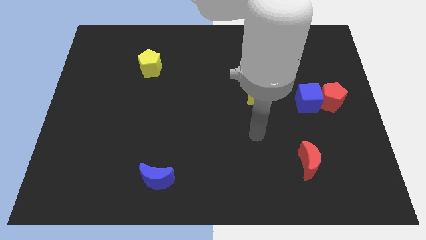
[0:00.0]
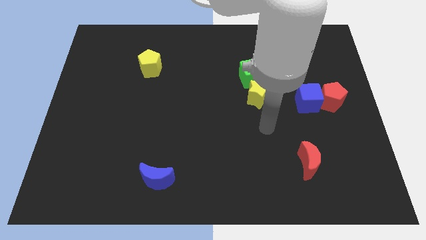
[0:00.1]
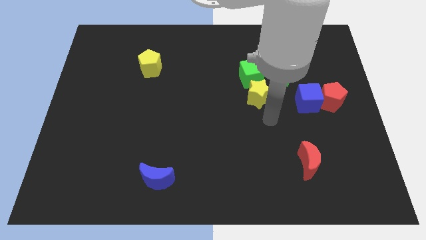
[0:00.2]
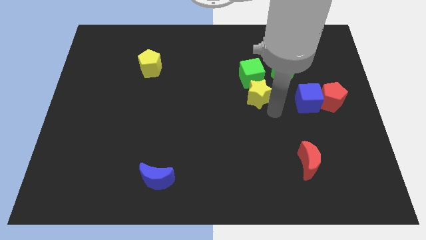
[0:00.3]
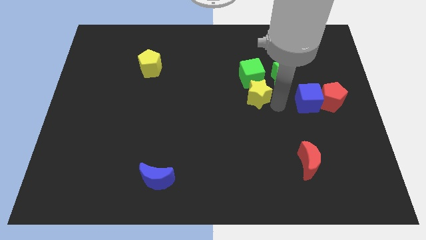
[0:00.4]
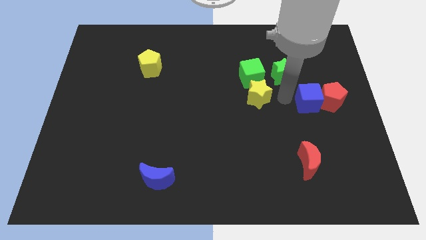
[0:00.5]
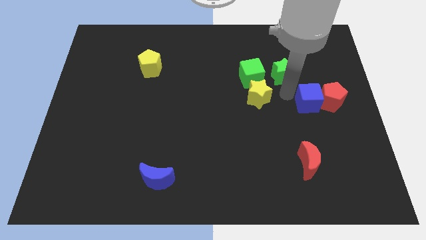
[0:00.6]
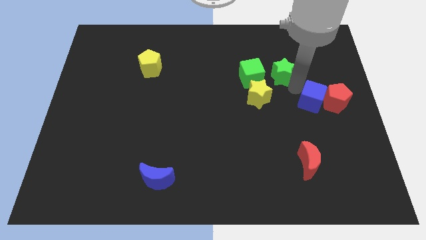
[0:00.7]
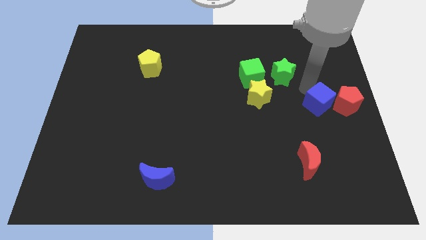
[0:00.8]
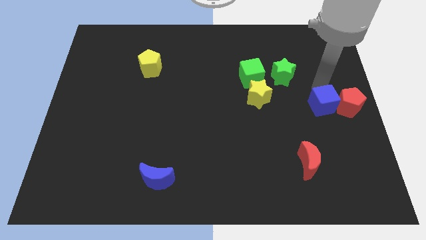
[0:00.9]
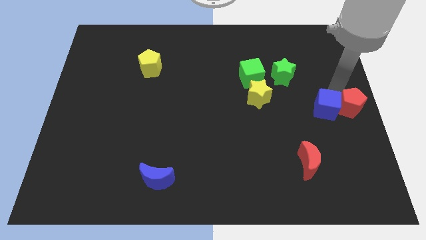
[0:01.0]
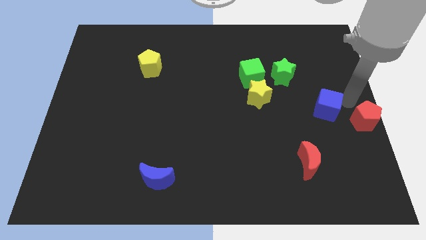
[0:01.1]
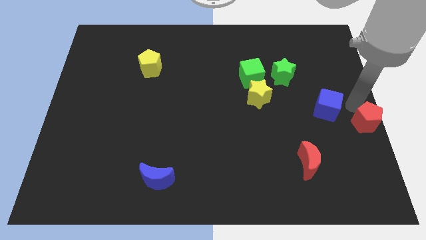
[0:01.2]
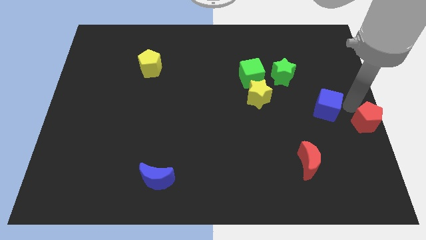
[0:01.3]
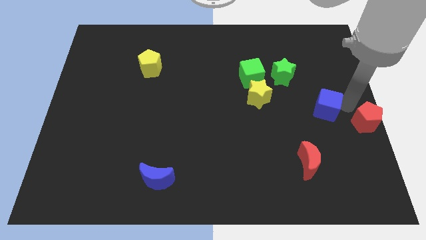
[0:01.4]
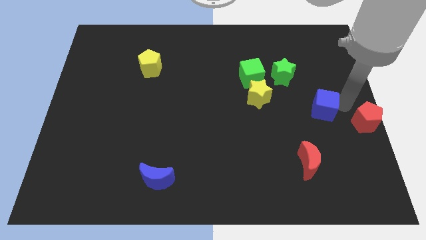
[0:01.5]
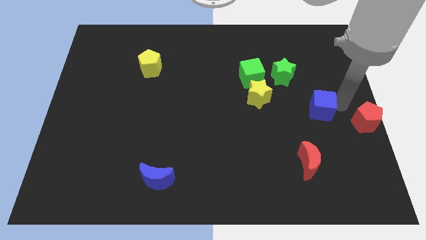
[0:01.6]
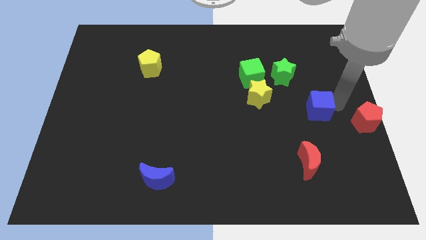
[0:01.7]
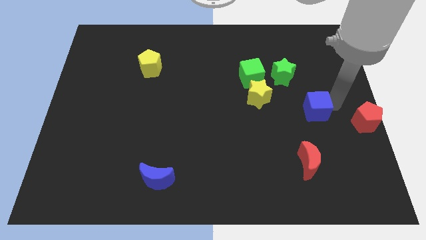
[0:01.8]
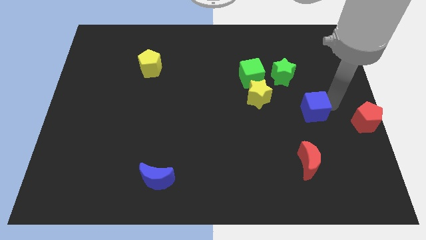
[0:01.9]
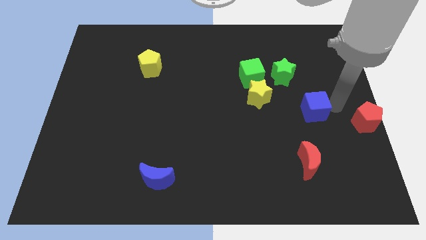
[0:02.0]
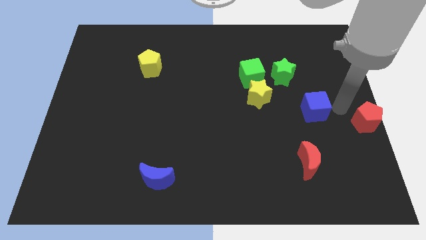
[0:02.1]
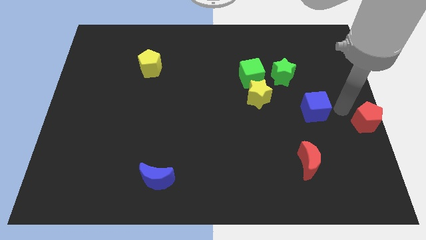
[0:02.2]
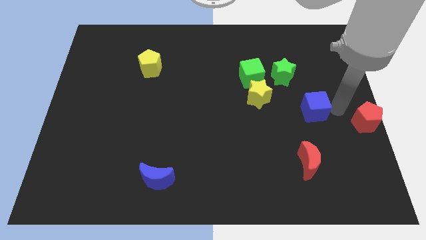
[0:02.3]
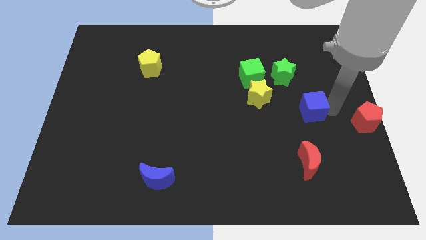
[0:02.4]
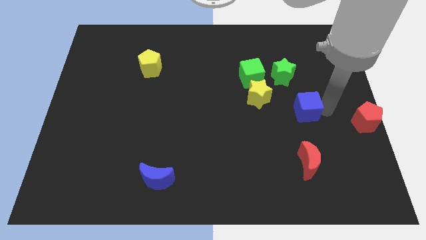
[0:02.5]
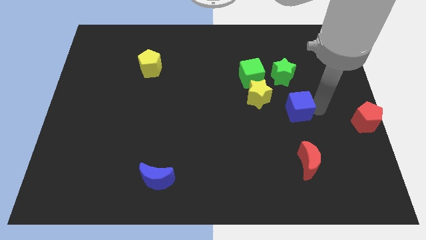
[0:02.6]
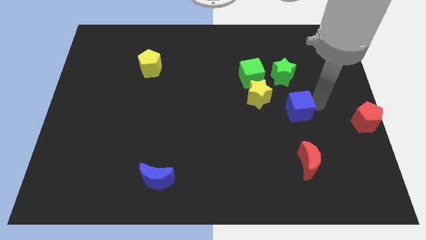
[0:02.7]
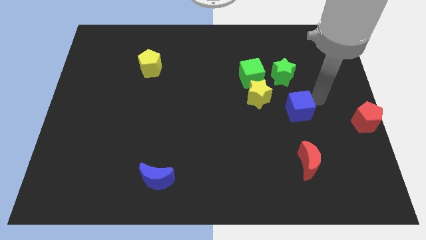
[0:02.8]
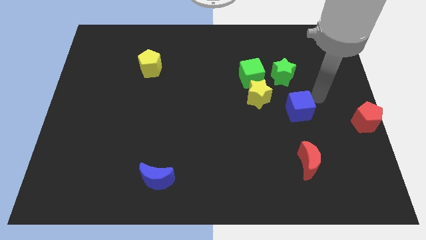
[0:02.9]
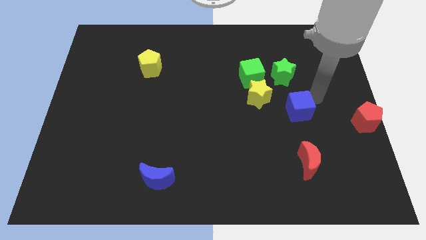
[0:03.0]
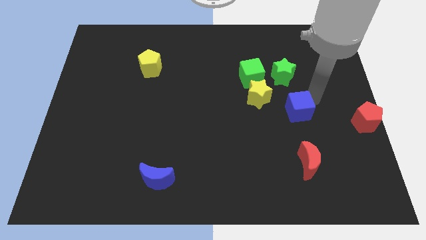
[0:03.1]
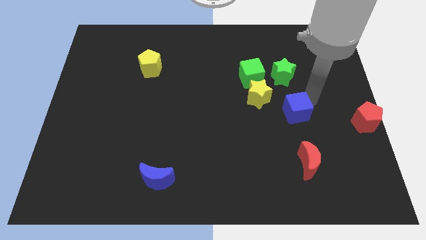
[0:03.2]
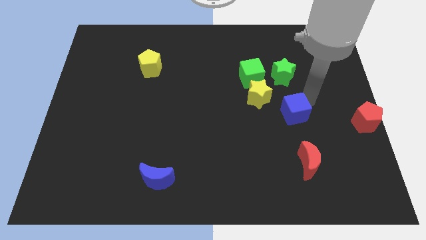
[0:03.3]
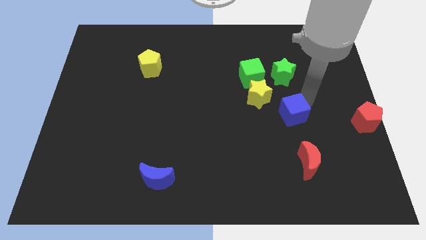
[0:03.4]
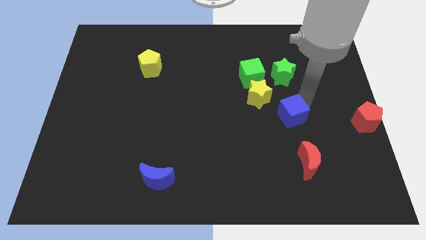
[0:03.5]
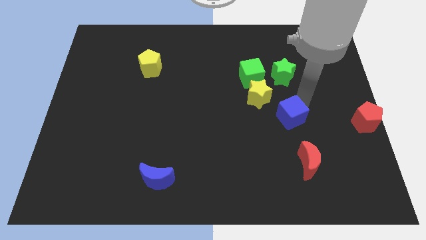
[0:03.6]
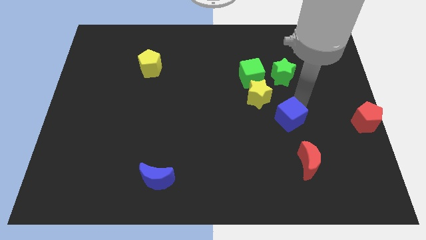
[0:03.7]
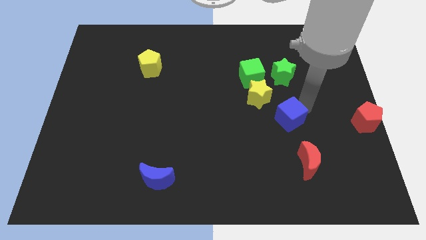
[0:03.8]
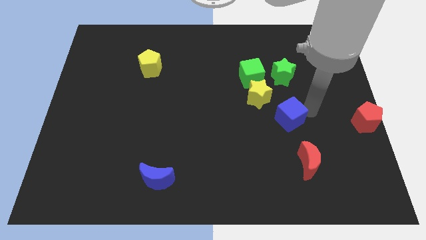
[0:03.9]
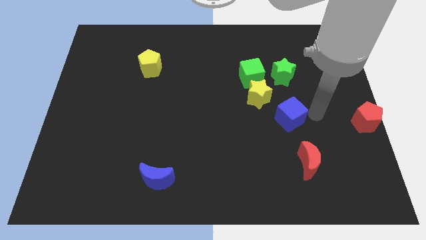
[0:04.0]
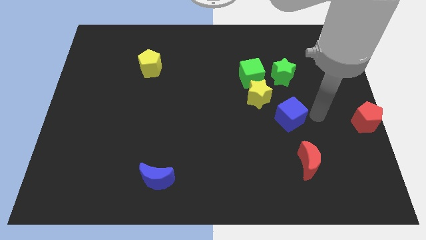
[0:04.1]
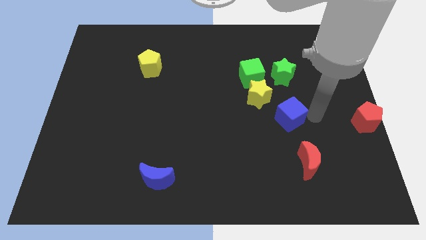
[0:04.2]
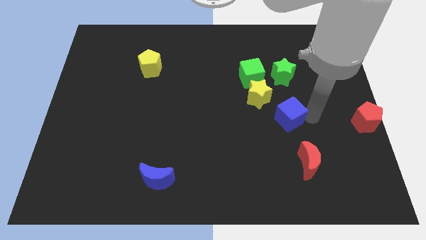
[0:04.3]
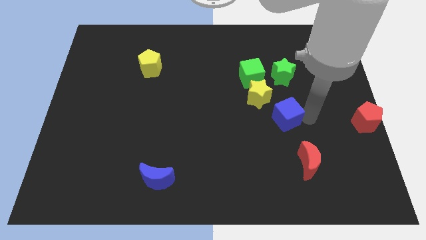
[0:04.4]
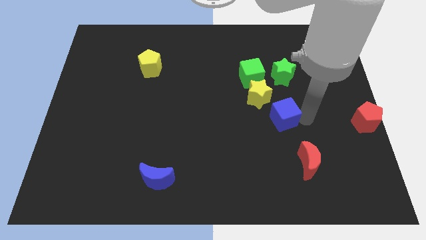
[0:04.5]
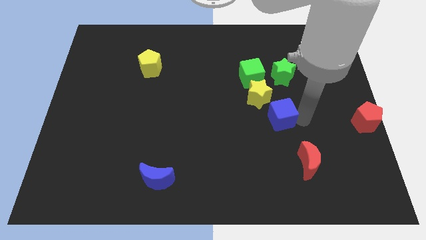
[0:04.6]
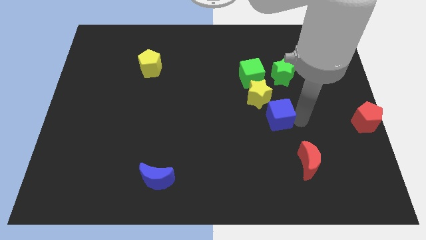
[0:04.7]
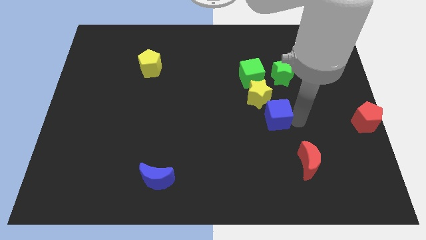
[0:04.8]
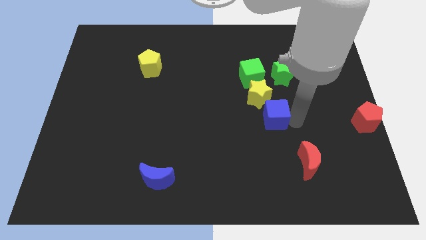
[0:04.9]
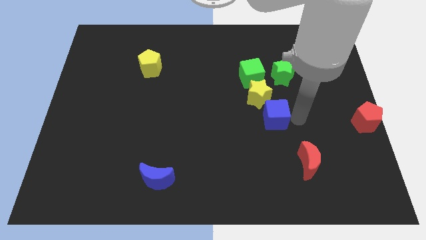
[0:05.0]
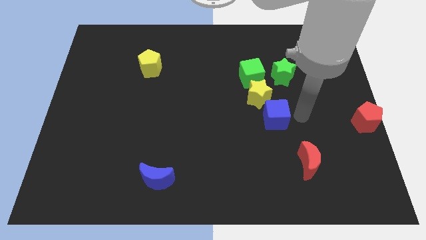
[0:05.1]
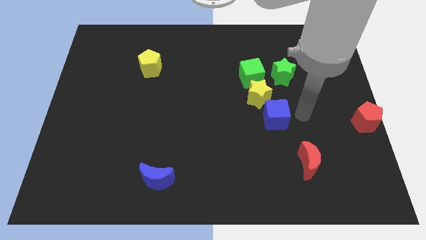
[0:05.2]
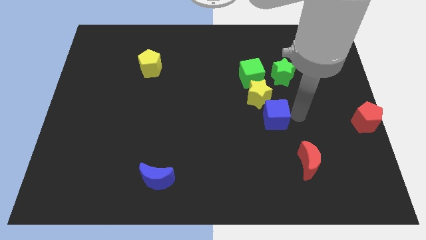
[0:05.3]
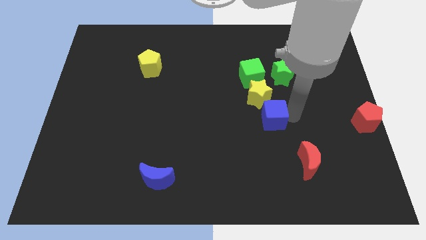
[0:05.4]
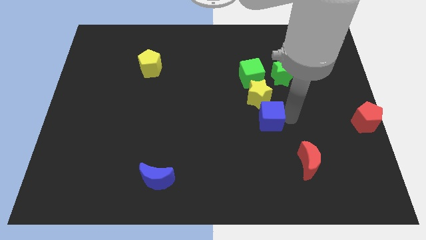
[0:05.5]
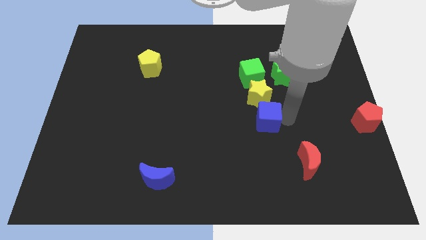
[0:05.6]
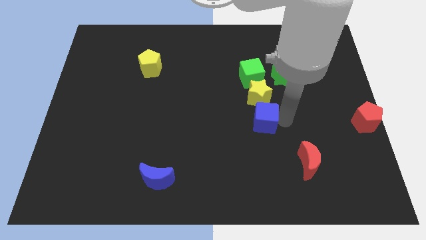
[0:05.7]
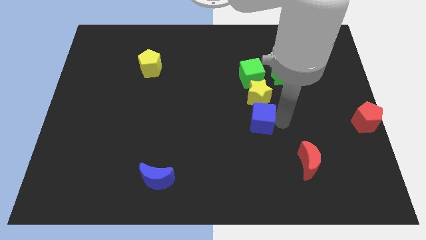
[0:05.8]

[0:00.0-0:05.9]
put the blue cube to the middle of the board

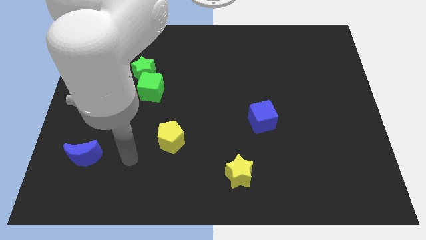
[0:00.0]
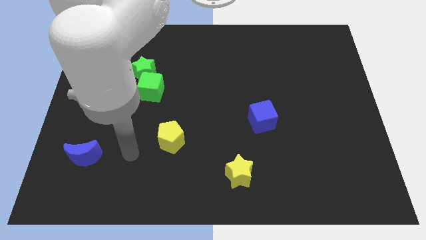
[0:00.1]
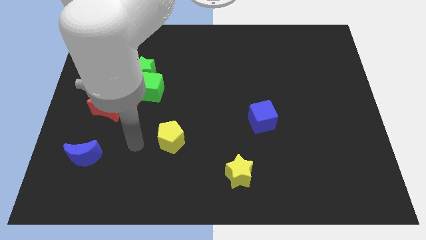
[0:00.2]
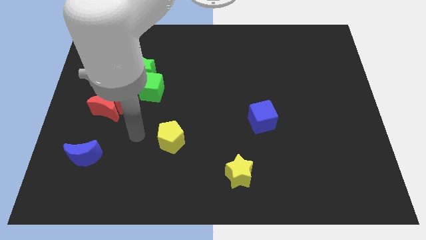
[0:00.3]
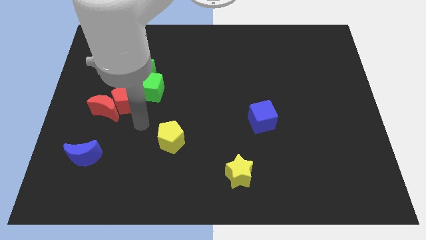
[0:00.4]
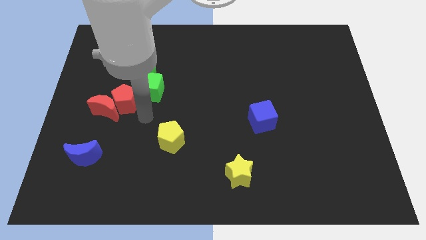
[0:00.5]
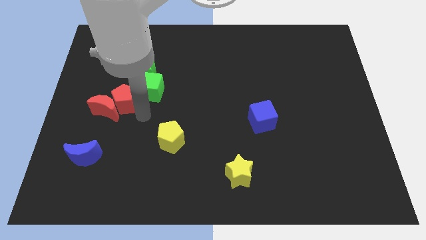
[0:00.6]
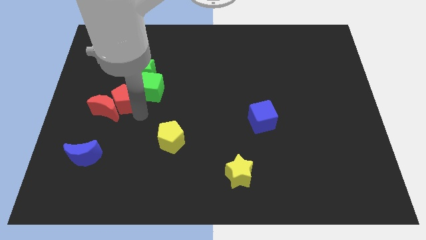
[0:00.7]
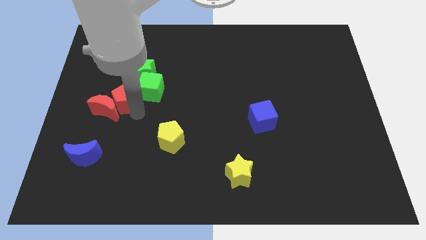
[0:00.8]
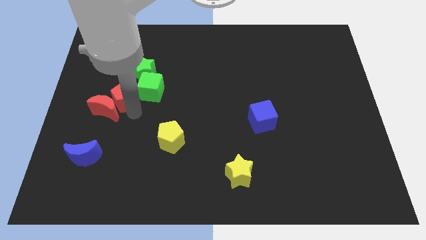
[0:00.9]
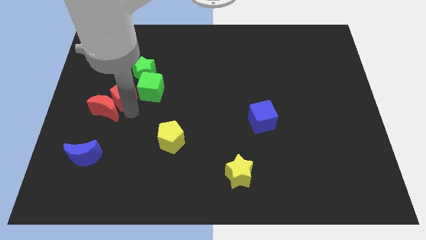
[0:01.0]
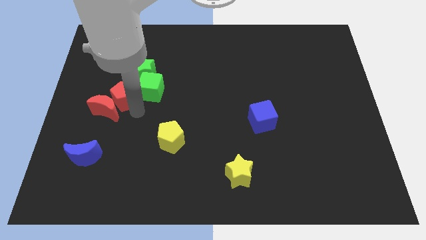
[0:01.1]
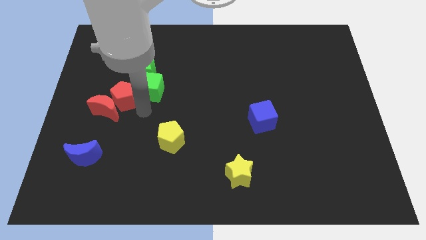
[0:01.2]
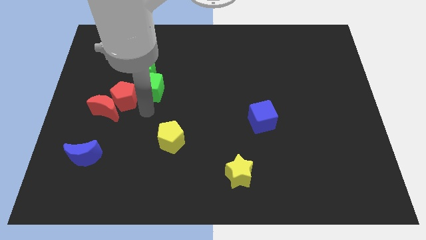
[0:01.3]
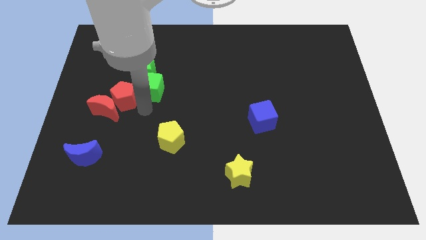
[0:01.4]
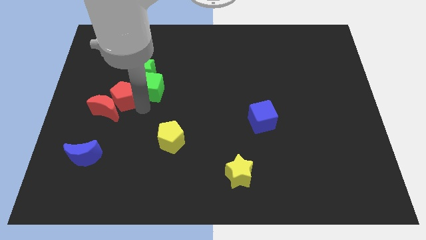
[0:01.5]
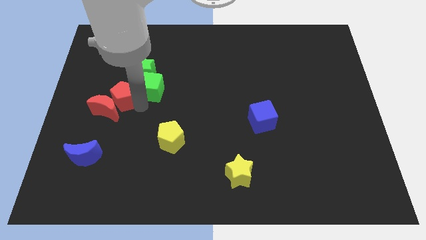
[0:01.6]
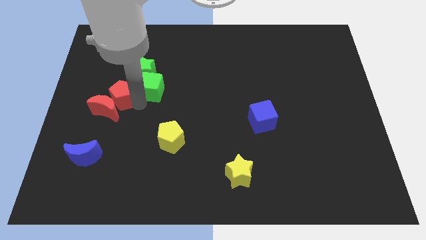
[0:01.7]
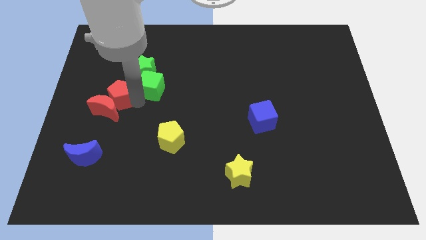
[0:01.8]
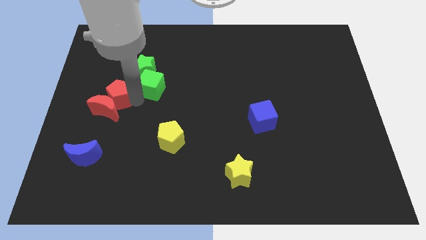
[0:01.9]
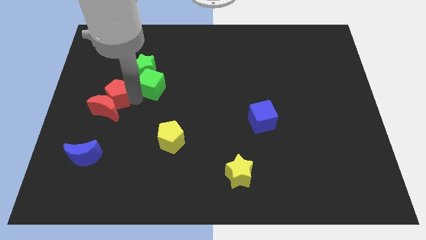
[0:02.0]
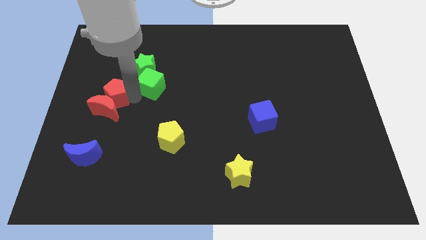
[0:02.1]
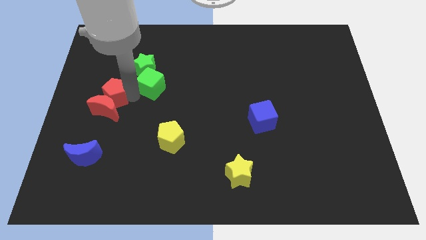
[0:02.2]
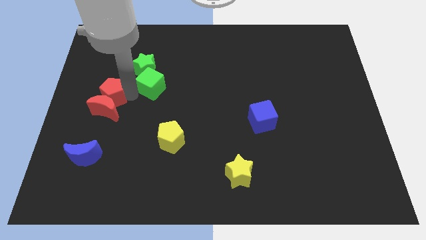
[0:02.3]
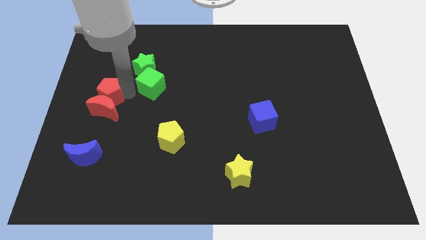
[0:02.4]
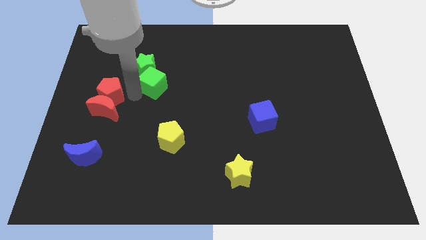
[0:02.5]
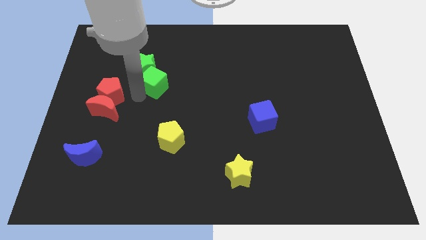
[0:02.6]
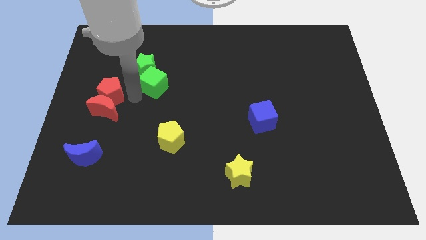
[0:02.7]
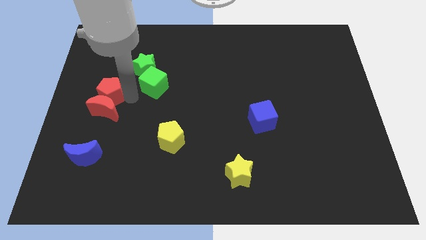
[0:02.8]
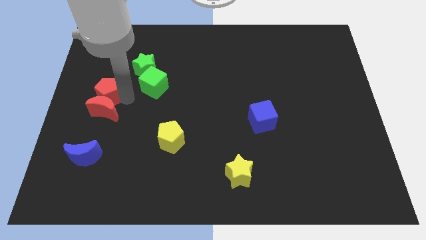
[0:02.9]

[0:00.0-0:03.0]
slide the red pentagon to the left side of the board
